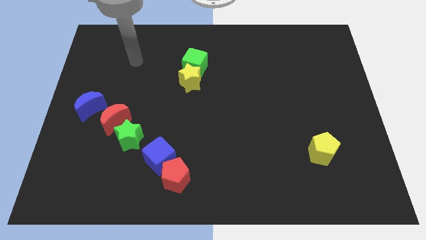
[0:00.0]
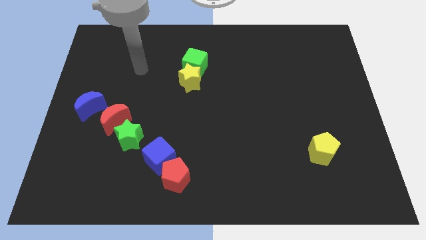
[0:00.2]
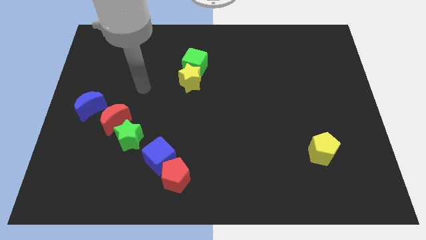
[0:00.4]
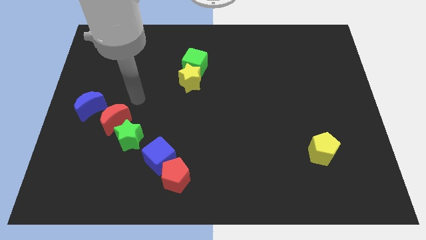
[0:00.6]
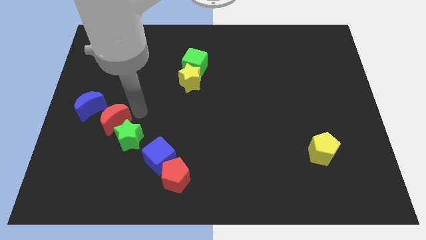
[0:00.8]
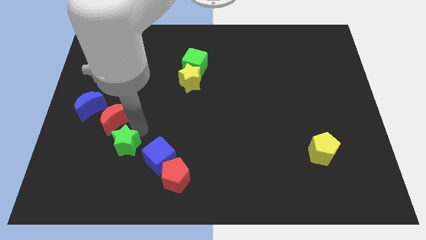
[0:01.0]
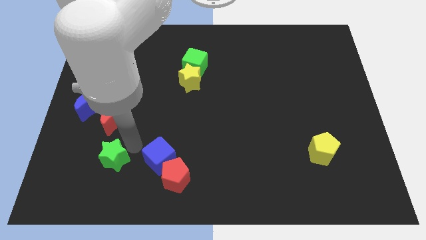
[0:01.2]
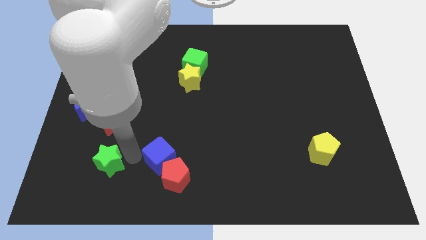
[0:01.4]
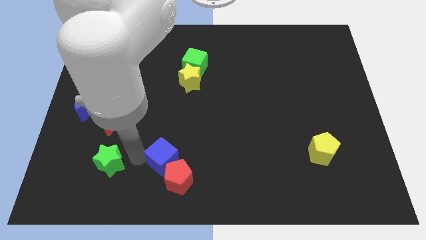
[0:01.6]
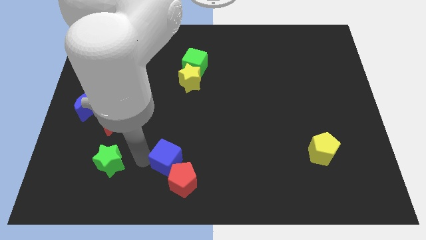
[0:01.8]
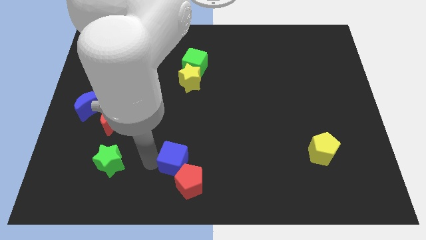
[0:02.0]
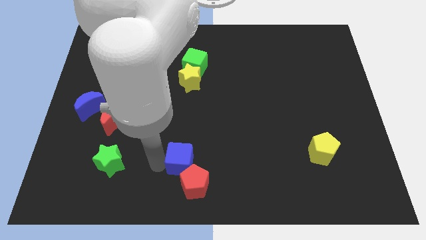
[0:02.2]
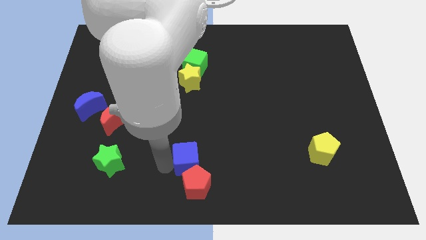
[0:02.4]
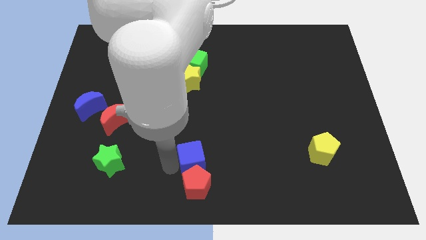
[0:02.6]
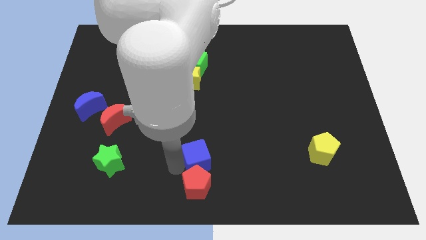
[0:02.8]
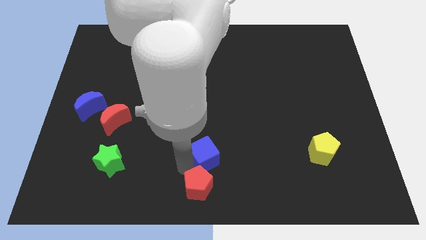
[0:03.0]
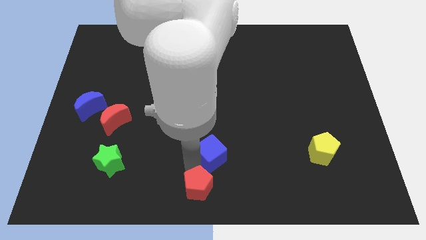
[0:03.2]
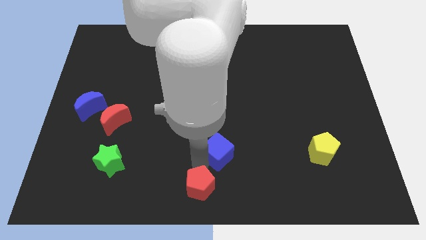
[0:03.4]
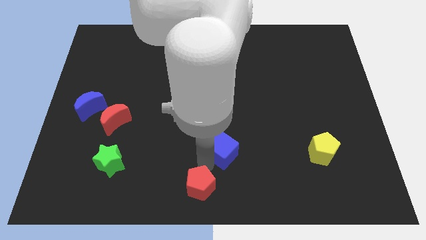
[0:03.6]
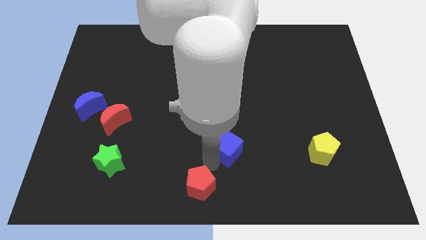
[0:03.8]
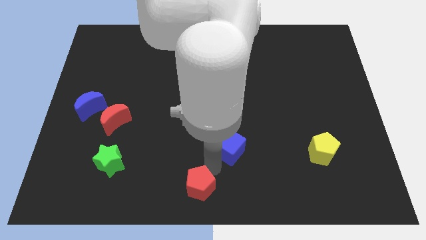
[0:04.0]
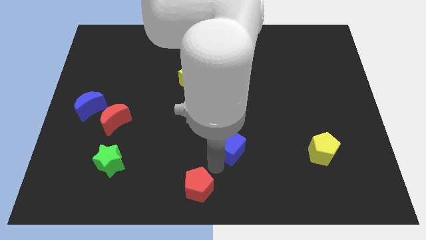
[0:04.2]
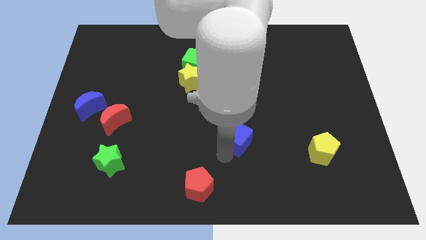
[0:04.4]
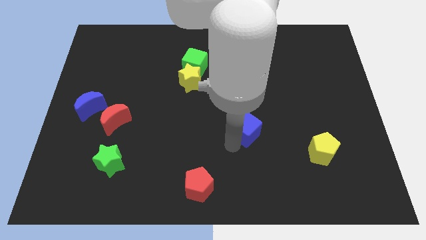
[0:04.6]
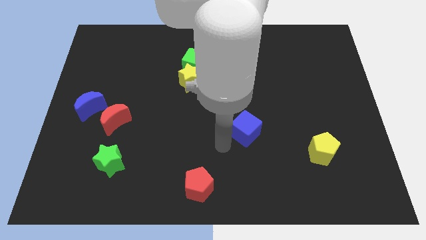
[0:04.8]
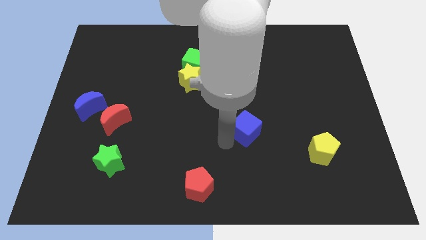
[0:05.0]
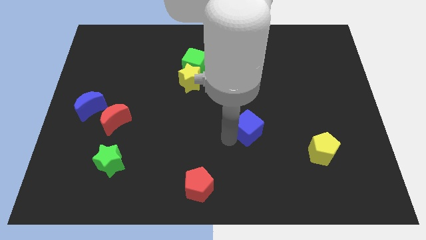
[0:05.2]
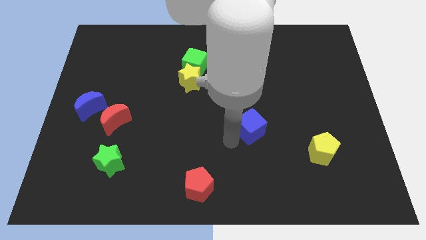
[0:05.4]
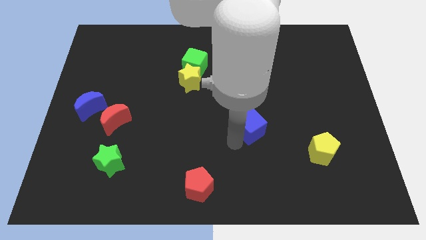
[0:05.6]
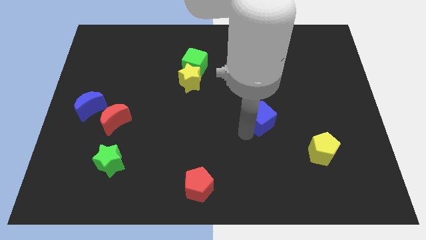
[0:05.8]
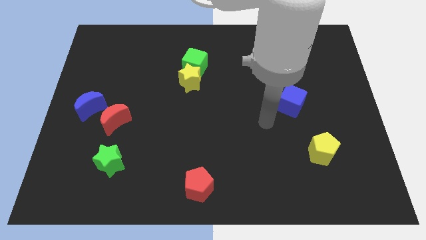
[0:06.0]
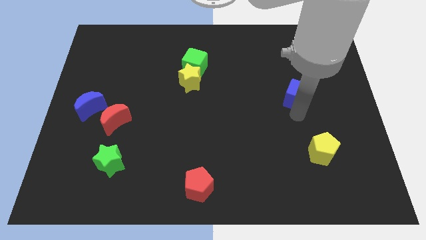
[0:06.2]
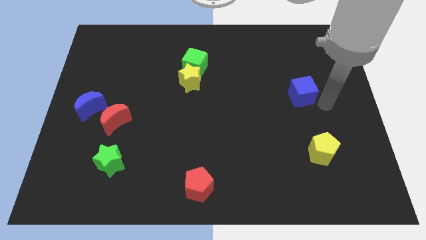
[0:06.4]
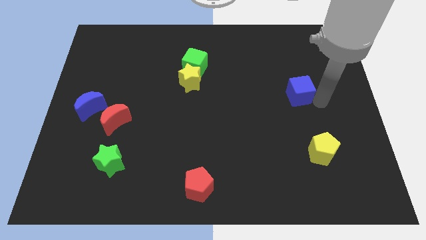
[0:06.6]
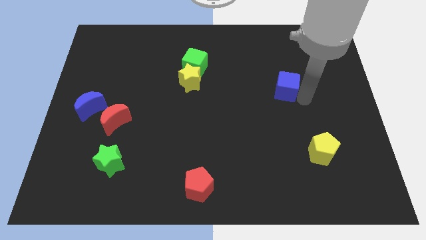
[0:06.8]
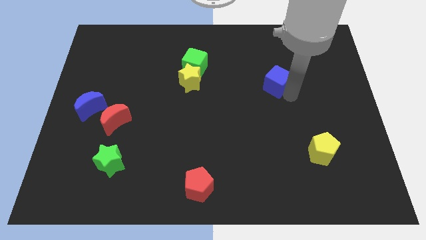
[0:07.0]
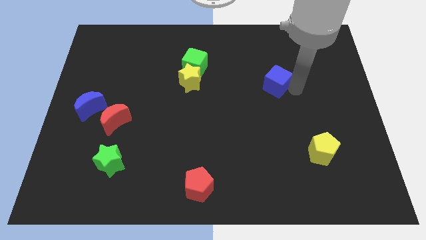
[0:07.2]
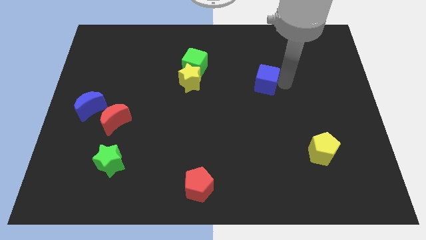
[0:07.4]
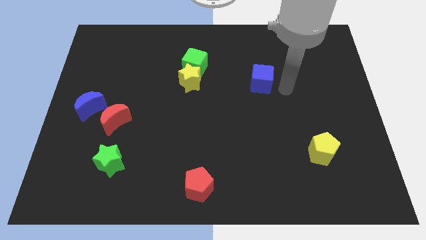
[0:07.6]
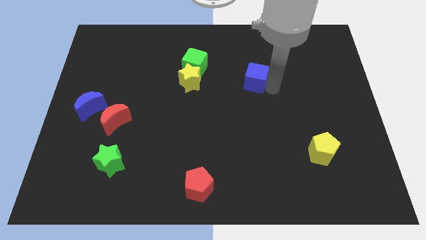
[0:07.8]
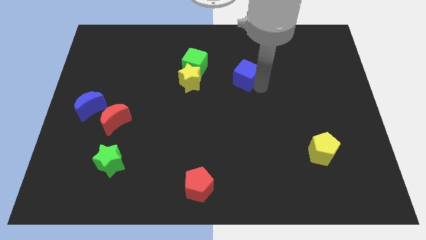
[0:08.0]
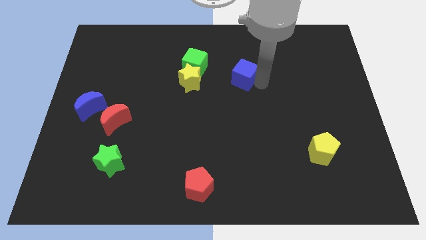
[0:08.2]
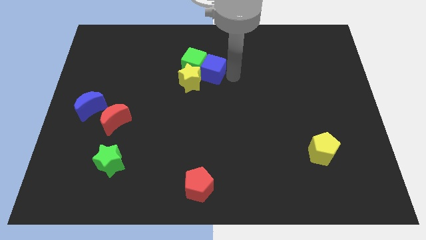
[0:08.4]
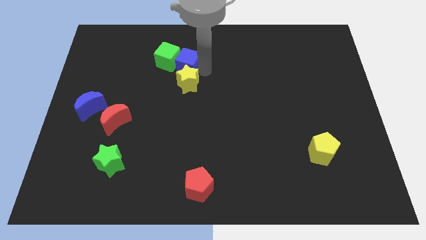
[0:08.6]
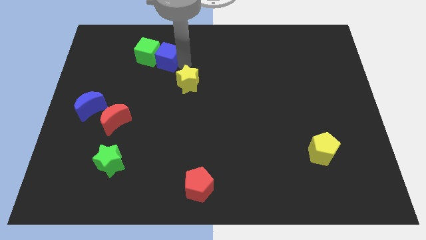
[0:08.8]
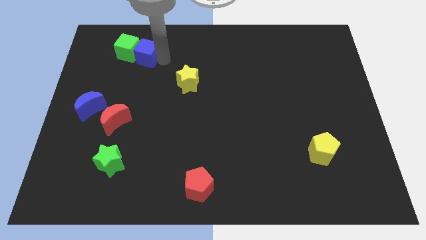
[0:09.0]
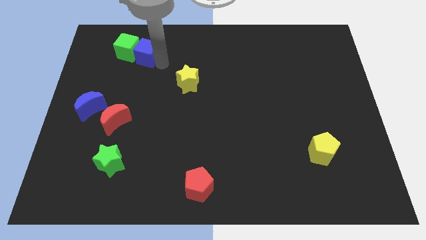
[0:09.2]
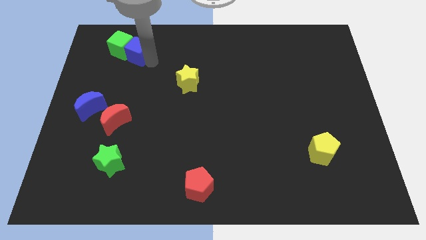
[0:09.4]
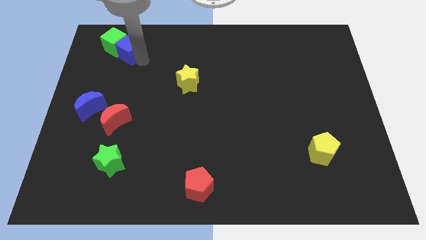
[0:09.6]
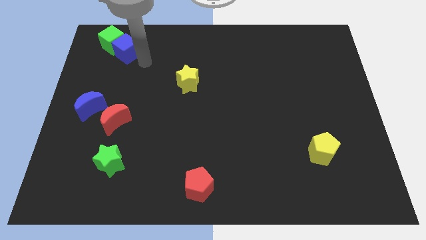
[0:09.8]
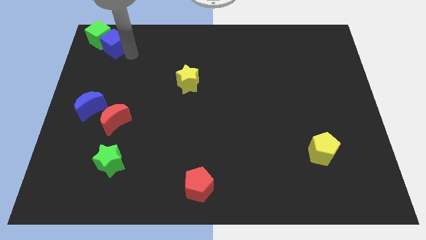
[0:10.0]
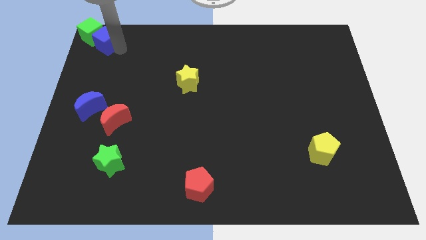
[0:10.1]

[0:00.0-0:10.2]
slide the blue cube to the top left of the board

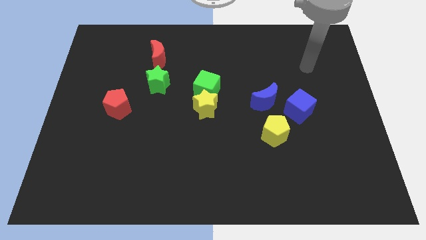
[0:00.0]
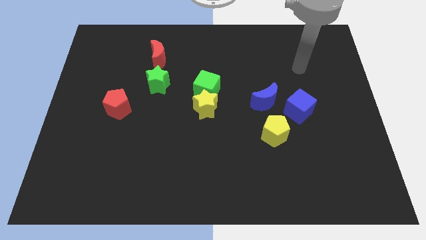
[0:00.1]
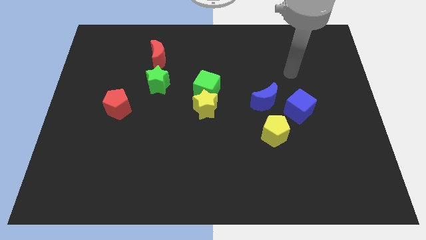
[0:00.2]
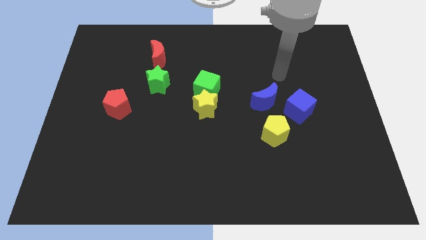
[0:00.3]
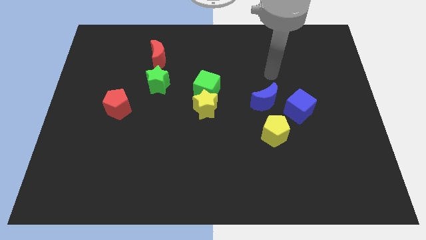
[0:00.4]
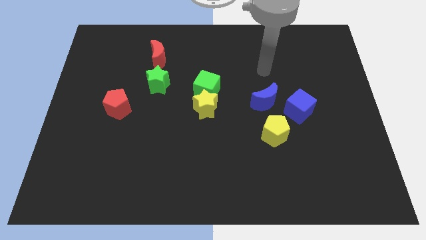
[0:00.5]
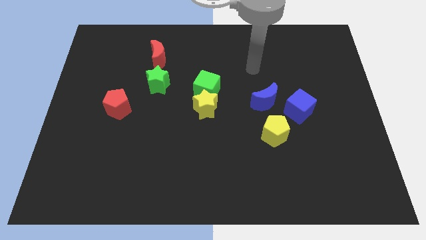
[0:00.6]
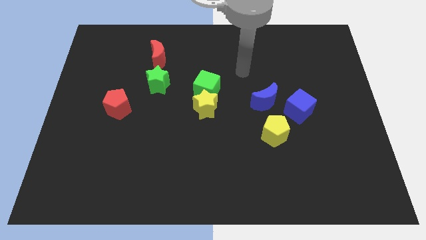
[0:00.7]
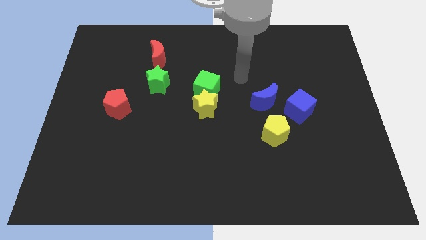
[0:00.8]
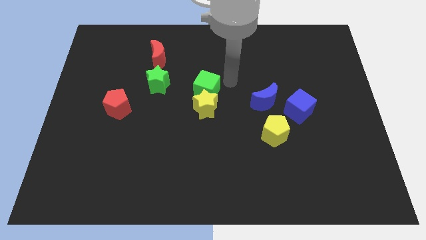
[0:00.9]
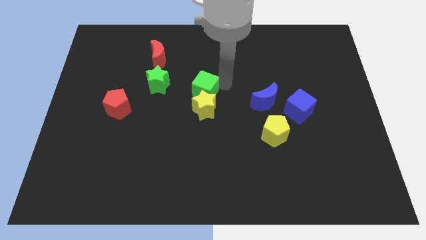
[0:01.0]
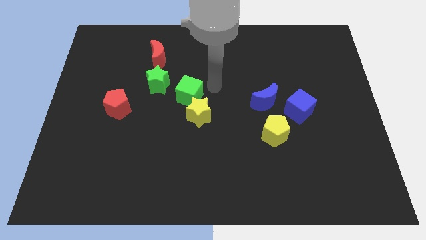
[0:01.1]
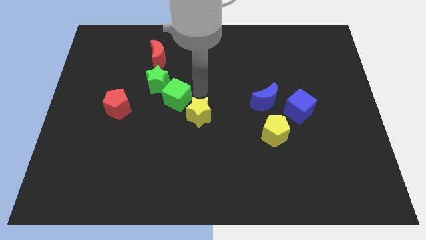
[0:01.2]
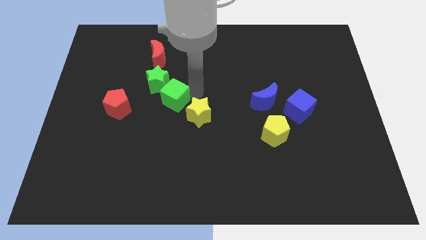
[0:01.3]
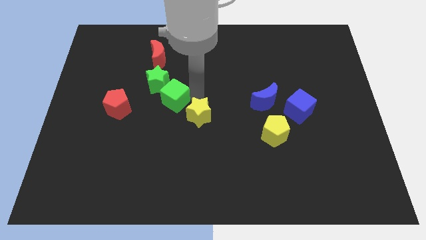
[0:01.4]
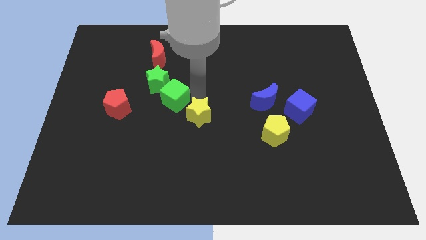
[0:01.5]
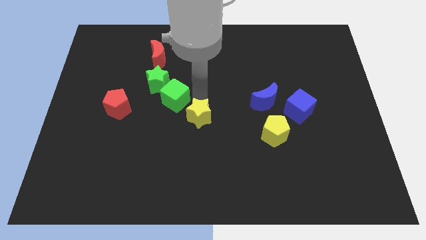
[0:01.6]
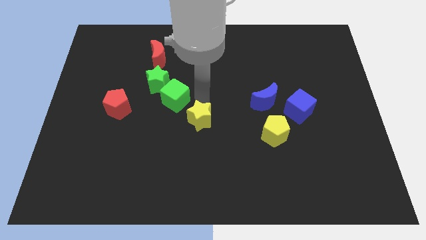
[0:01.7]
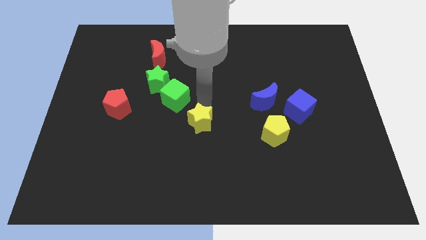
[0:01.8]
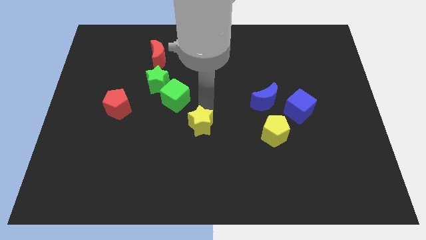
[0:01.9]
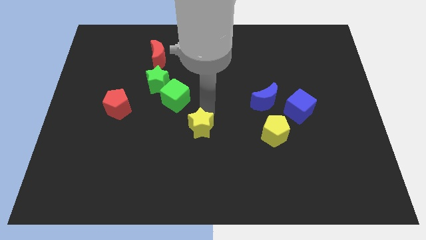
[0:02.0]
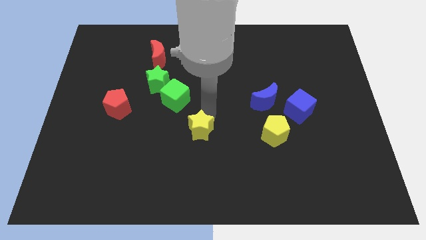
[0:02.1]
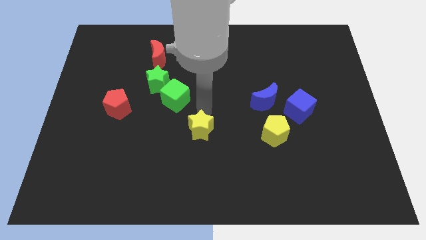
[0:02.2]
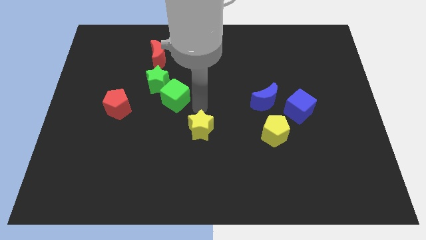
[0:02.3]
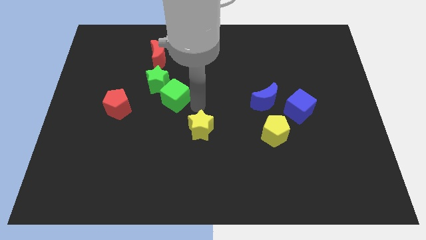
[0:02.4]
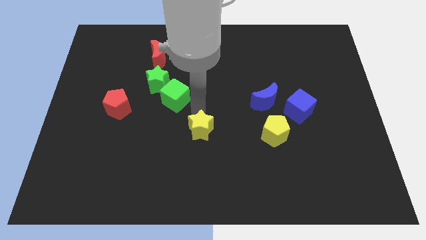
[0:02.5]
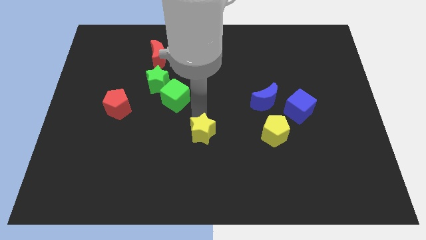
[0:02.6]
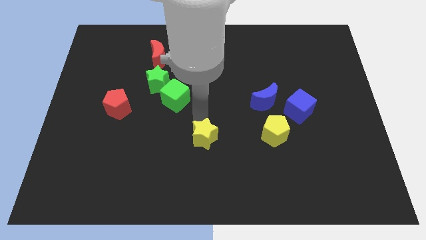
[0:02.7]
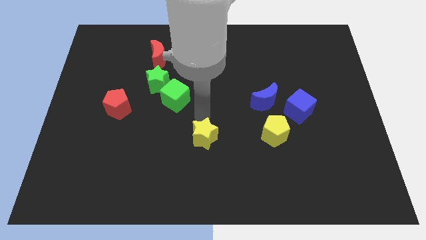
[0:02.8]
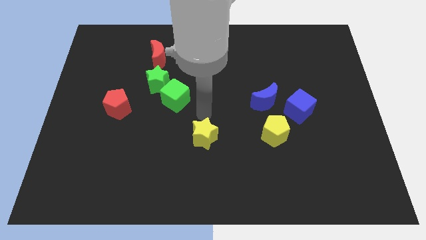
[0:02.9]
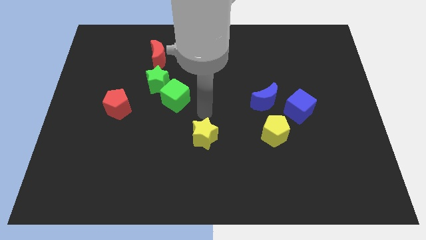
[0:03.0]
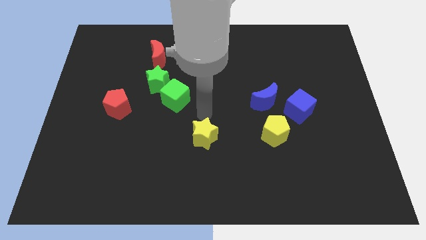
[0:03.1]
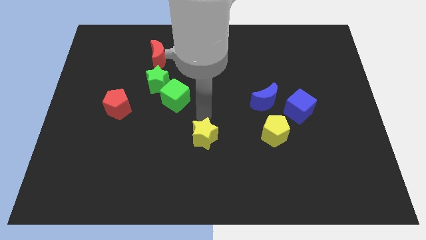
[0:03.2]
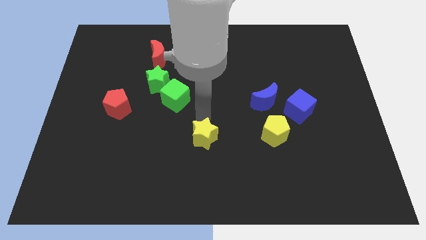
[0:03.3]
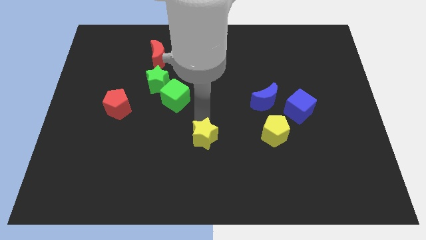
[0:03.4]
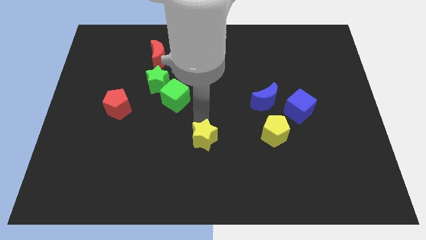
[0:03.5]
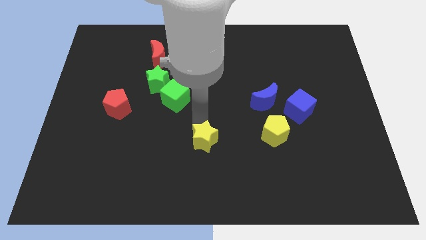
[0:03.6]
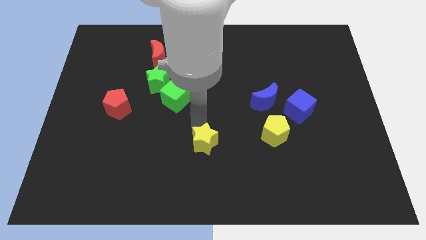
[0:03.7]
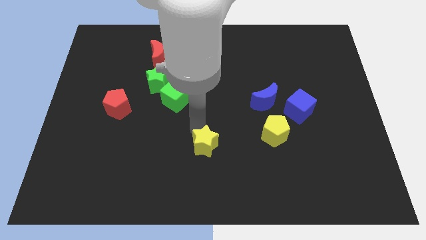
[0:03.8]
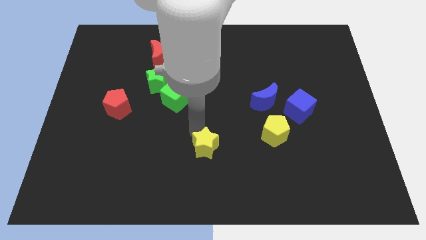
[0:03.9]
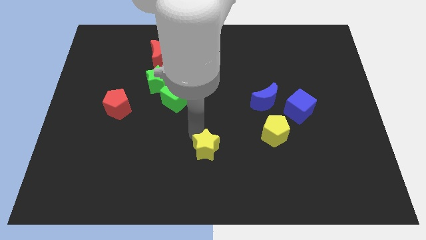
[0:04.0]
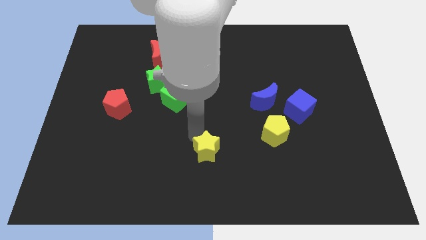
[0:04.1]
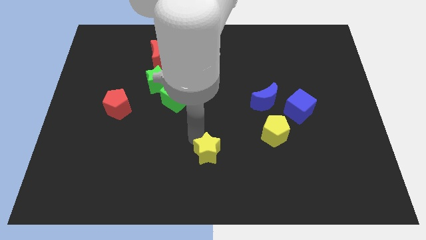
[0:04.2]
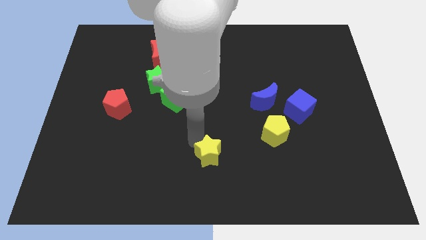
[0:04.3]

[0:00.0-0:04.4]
put the yellow star to the bottom side
